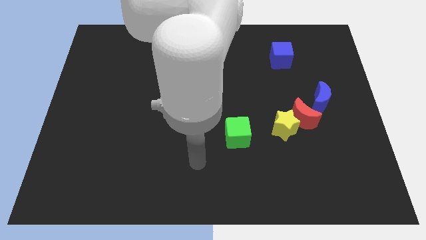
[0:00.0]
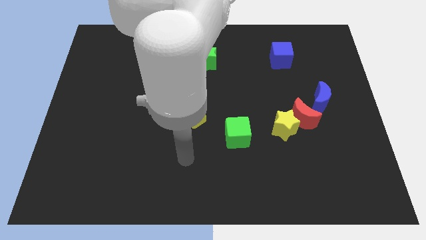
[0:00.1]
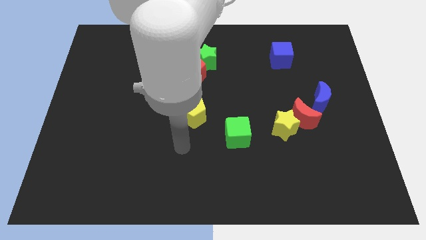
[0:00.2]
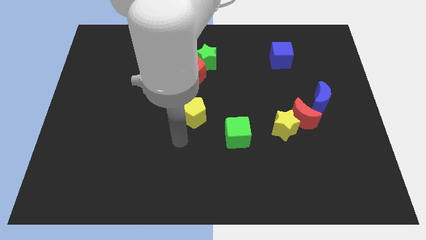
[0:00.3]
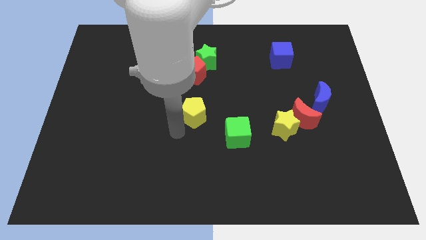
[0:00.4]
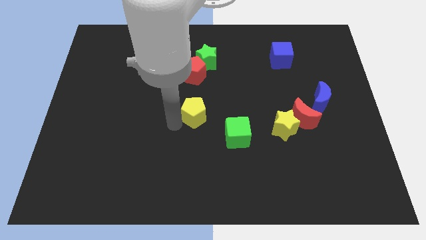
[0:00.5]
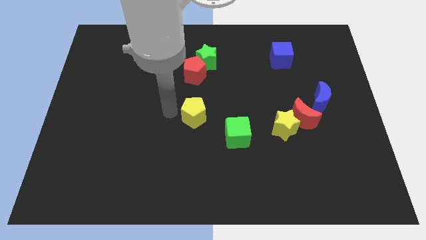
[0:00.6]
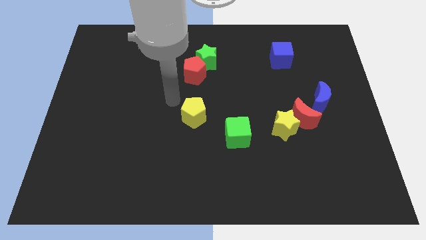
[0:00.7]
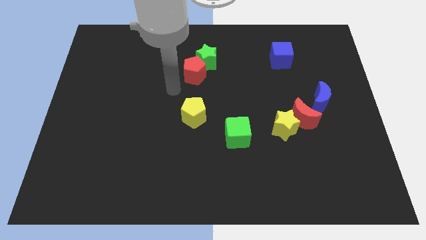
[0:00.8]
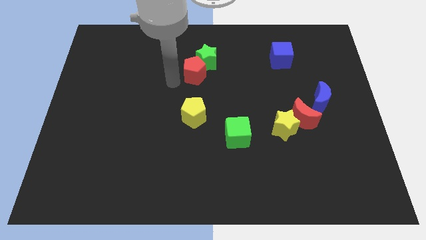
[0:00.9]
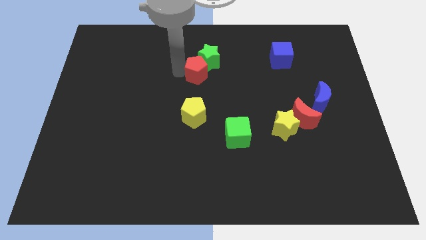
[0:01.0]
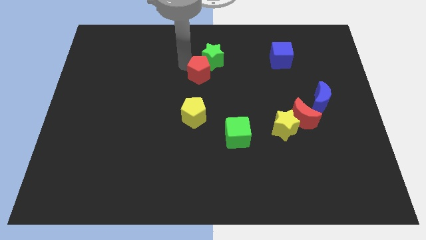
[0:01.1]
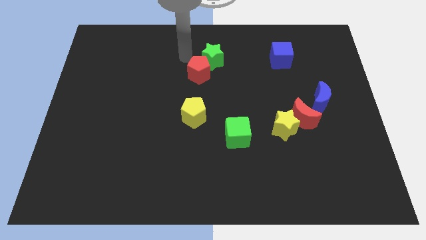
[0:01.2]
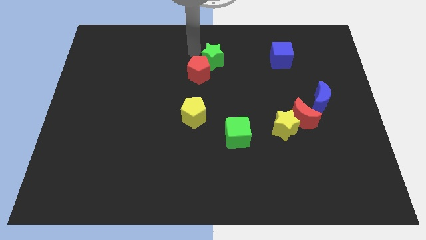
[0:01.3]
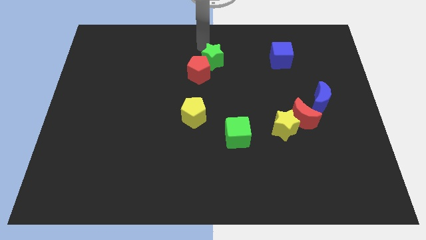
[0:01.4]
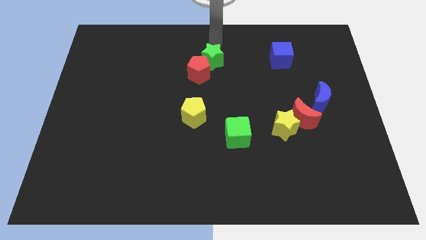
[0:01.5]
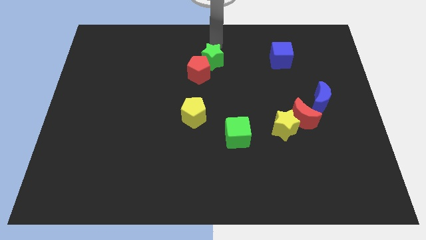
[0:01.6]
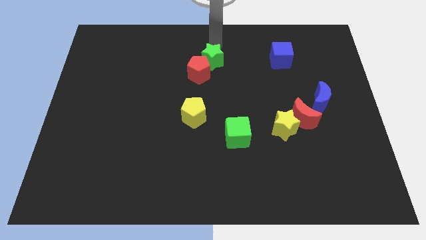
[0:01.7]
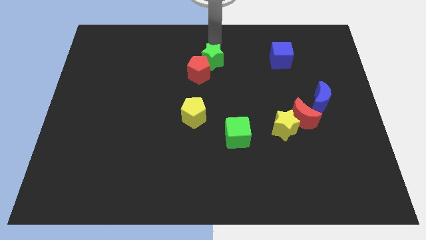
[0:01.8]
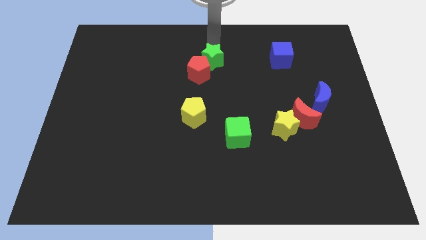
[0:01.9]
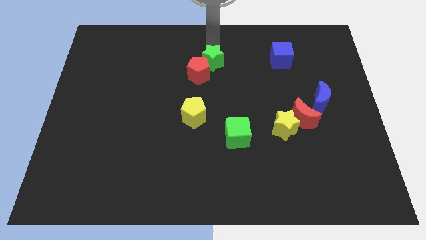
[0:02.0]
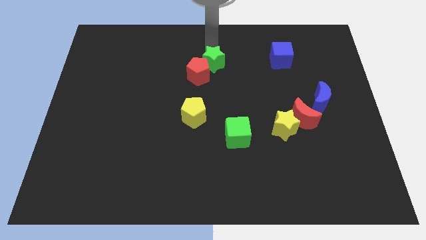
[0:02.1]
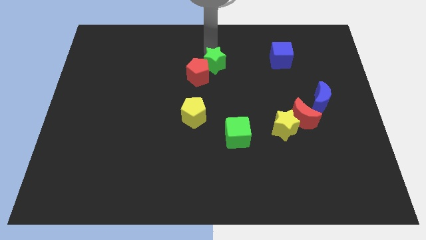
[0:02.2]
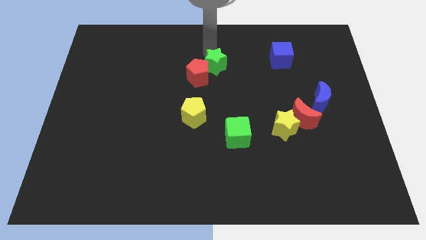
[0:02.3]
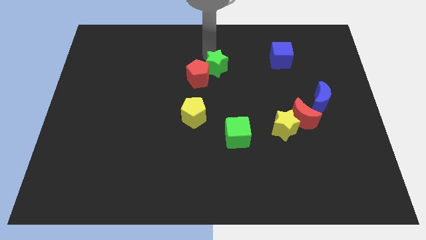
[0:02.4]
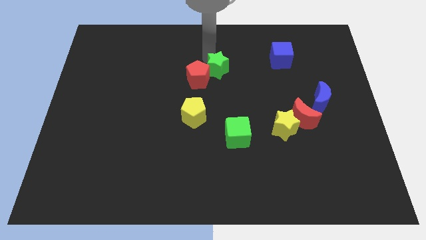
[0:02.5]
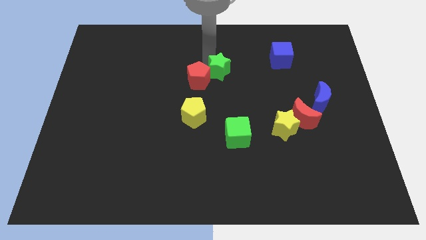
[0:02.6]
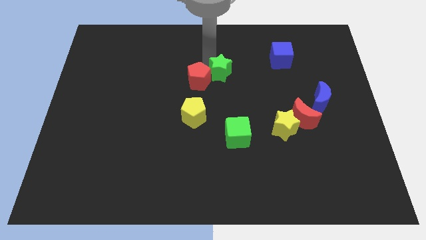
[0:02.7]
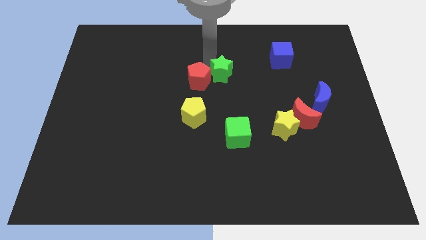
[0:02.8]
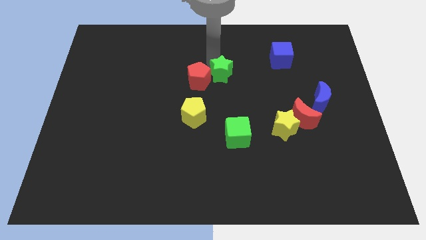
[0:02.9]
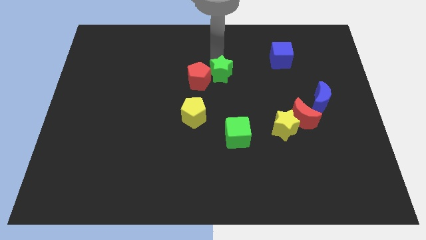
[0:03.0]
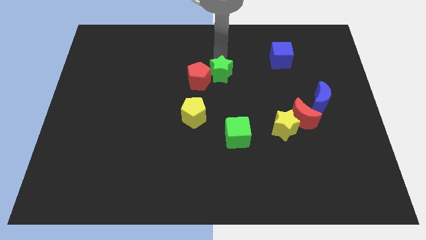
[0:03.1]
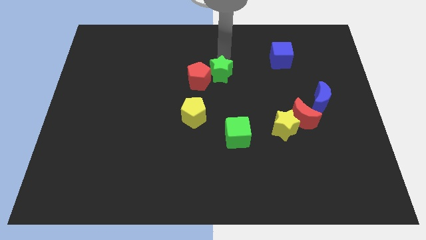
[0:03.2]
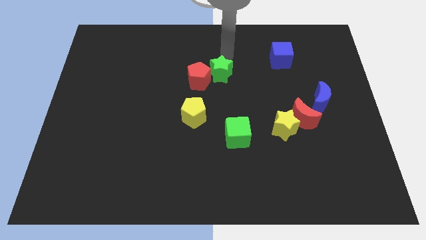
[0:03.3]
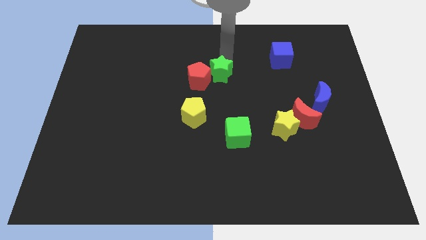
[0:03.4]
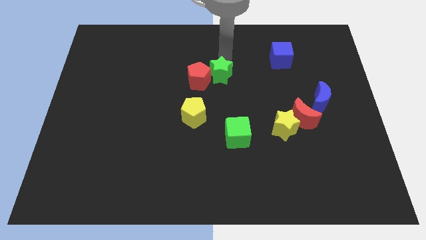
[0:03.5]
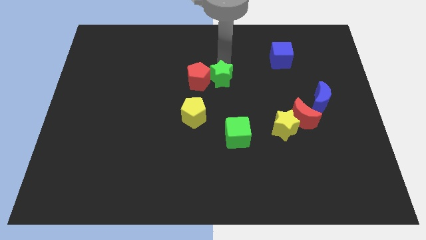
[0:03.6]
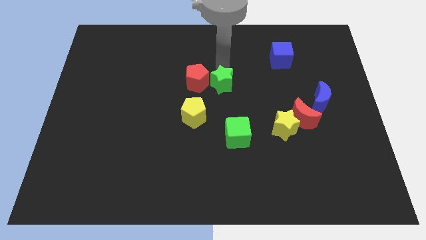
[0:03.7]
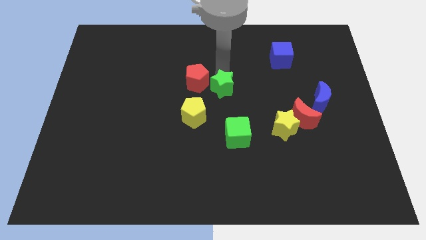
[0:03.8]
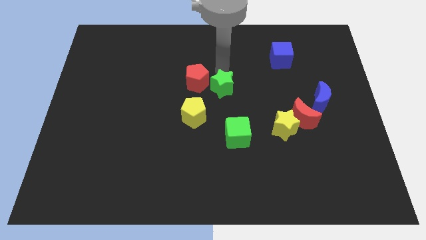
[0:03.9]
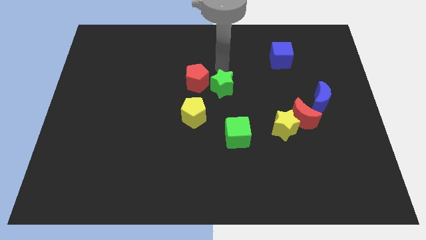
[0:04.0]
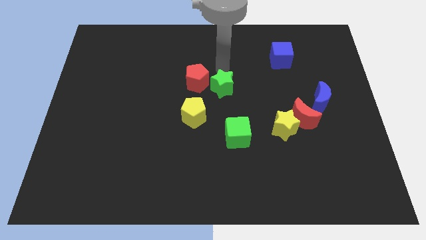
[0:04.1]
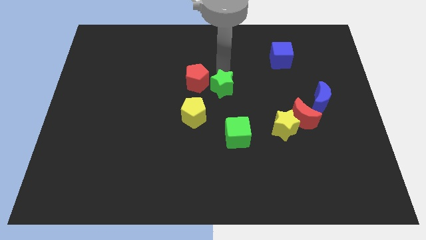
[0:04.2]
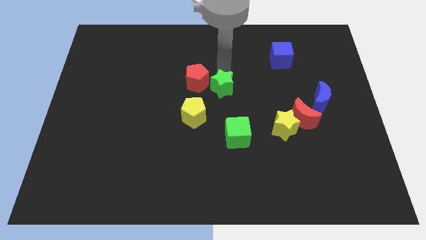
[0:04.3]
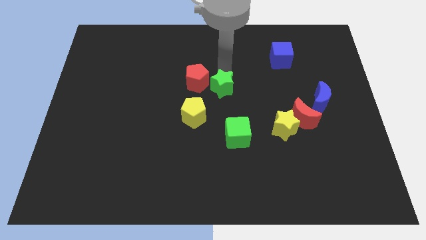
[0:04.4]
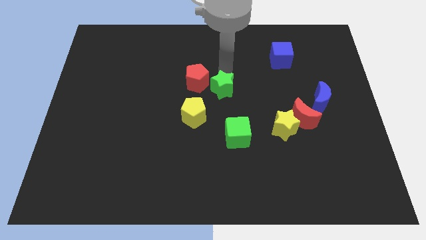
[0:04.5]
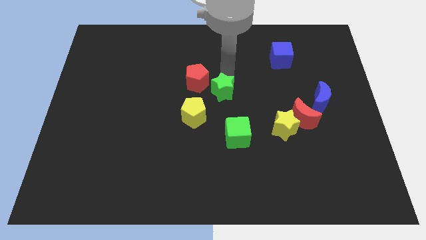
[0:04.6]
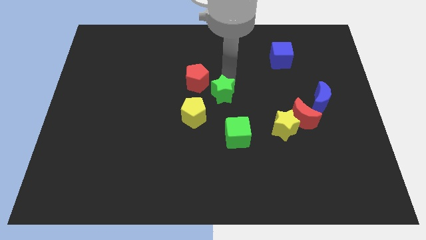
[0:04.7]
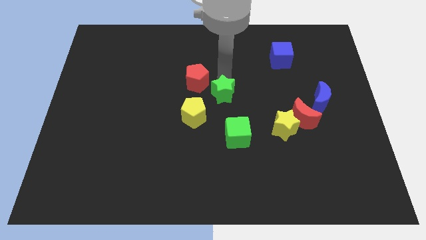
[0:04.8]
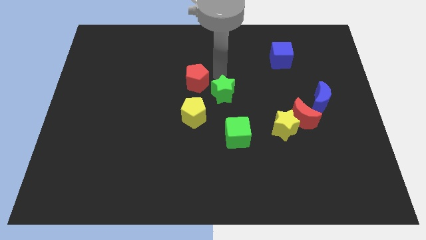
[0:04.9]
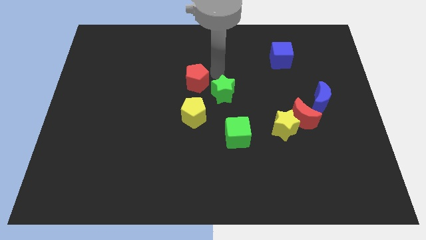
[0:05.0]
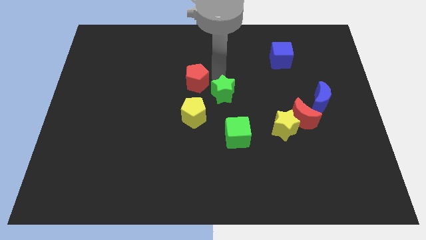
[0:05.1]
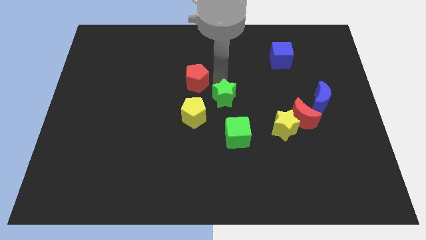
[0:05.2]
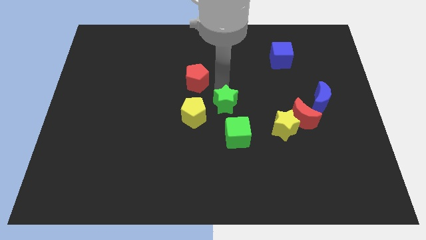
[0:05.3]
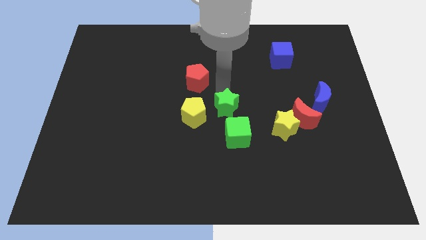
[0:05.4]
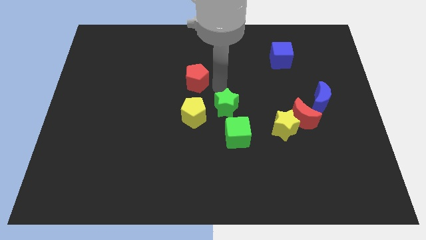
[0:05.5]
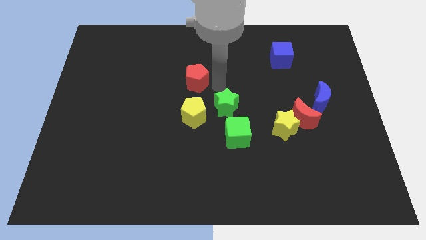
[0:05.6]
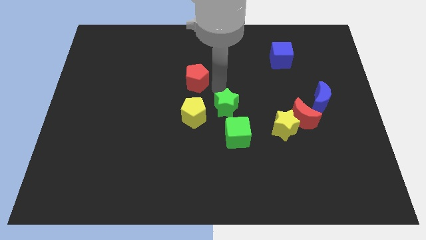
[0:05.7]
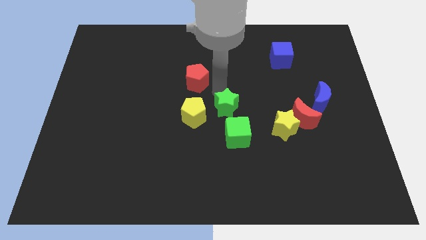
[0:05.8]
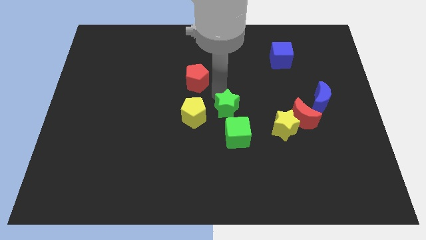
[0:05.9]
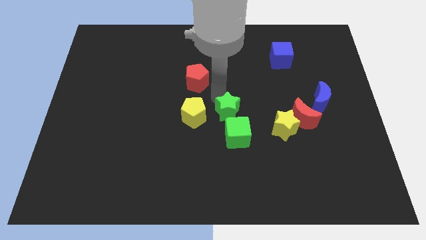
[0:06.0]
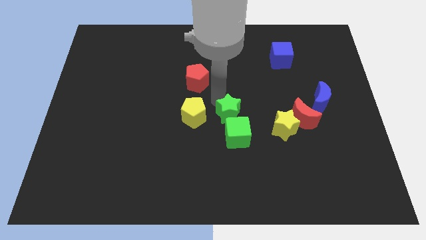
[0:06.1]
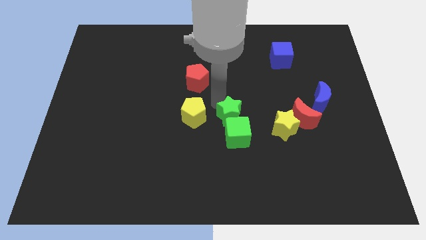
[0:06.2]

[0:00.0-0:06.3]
put the green star to the green cube
